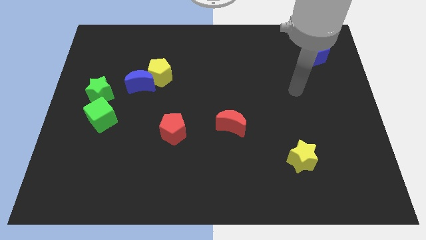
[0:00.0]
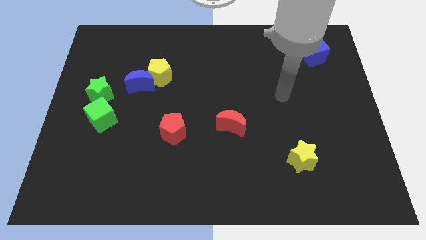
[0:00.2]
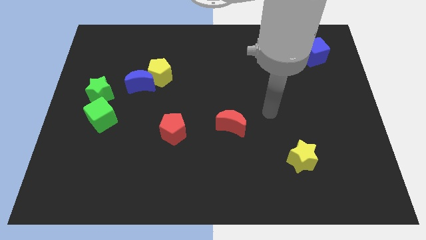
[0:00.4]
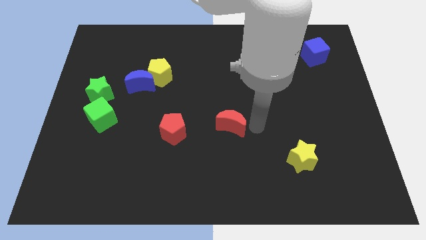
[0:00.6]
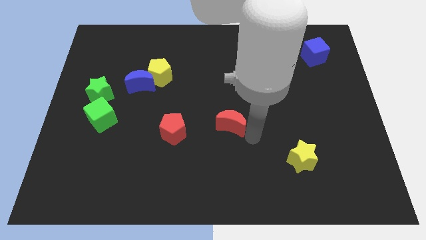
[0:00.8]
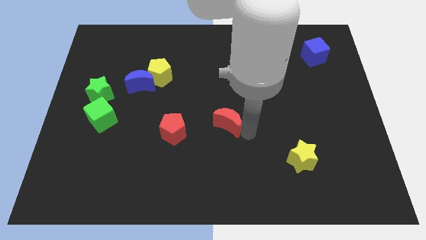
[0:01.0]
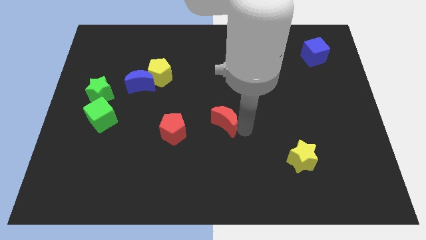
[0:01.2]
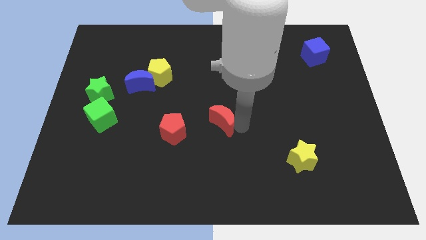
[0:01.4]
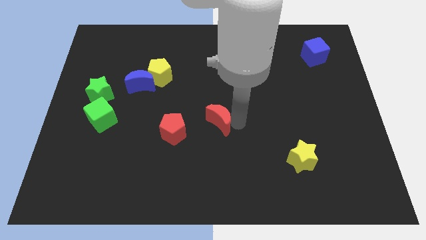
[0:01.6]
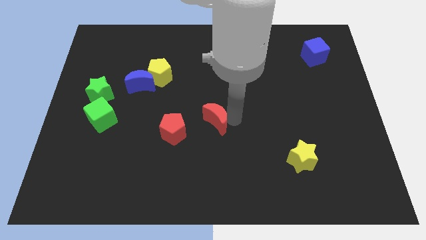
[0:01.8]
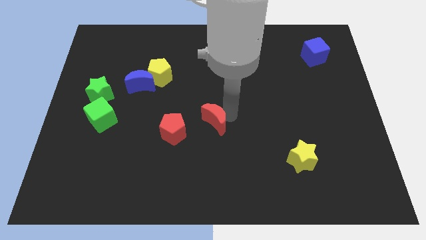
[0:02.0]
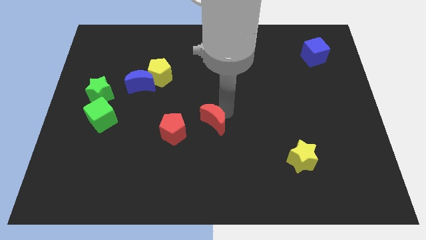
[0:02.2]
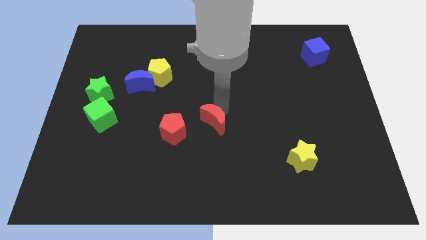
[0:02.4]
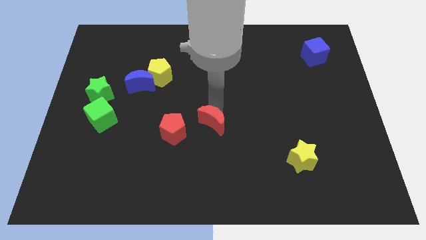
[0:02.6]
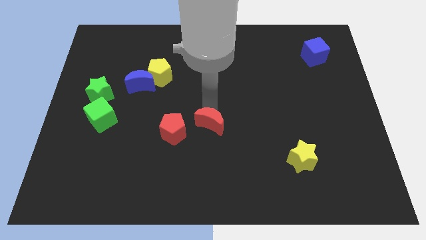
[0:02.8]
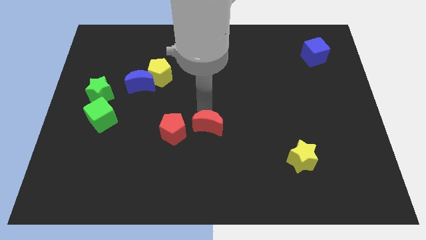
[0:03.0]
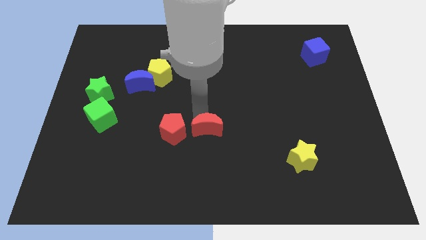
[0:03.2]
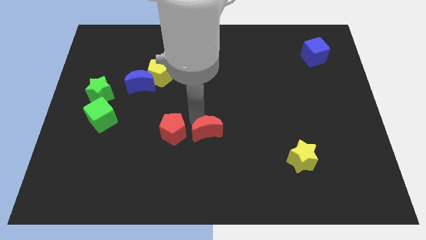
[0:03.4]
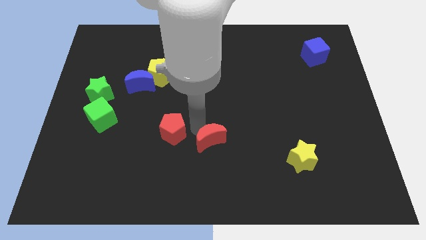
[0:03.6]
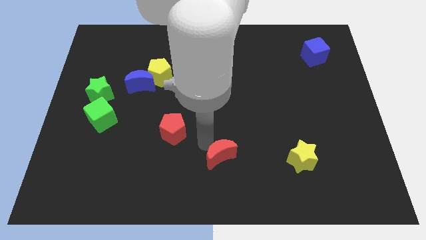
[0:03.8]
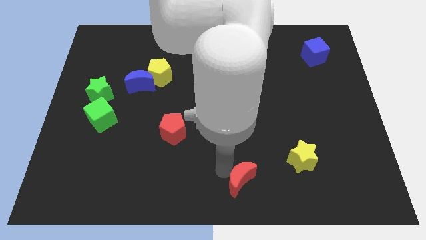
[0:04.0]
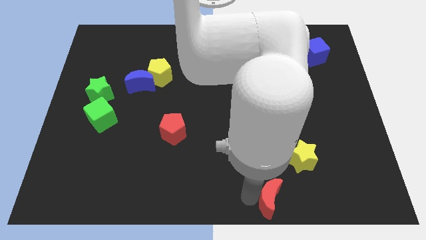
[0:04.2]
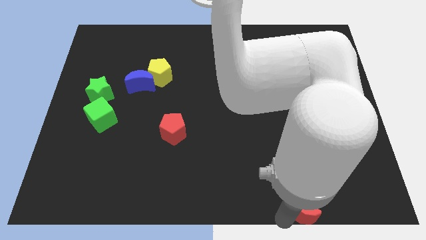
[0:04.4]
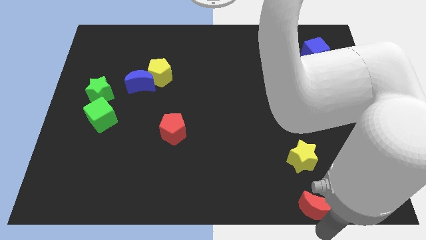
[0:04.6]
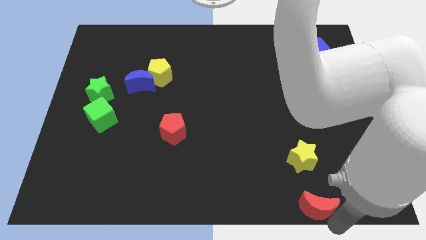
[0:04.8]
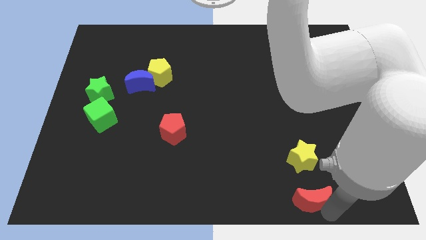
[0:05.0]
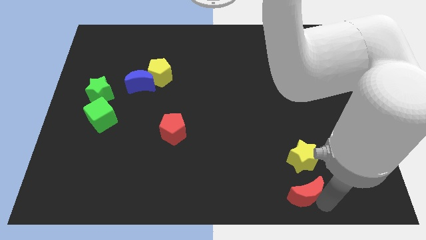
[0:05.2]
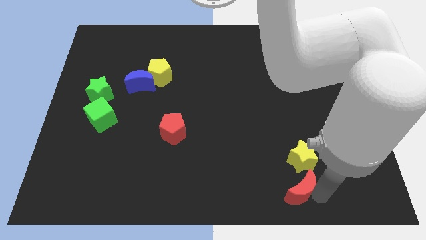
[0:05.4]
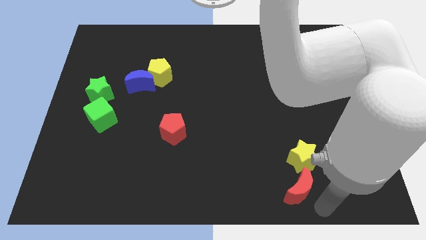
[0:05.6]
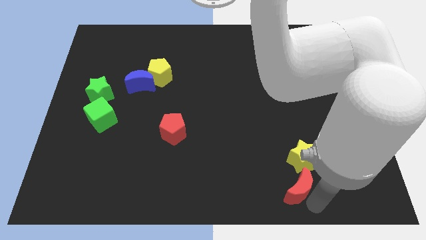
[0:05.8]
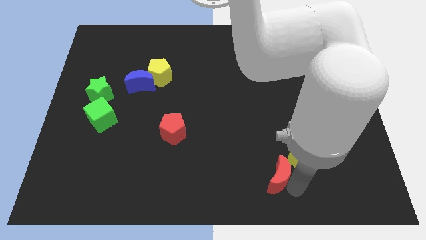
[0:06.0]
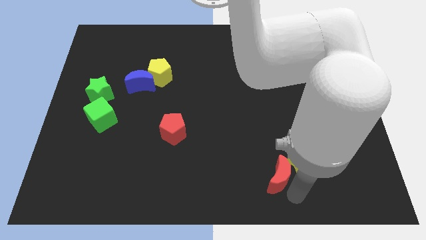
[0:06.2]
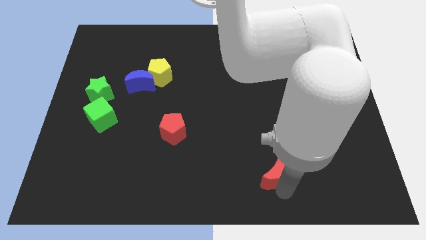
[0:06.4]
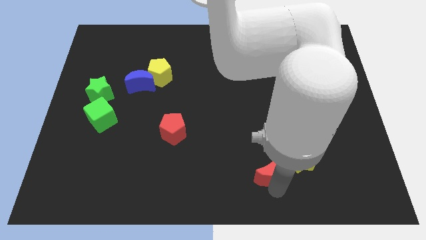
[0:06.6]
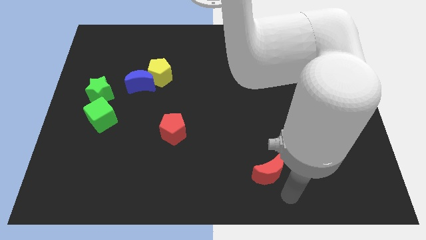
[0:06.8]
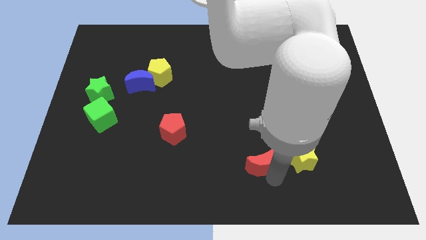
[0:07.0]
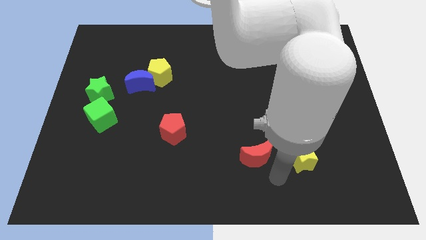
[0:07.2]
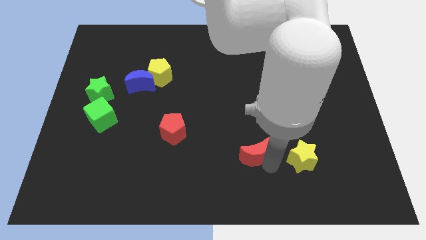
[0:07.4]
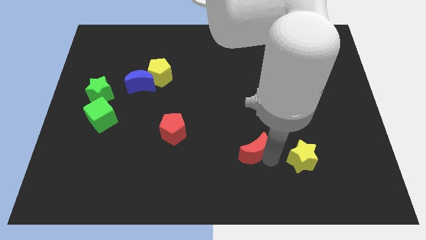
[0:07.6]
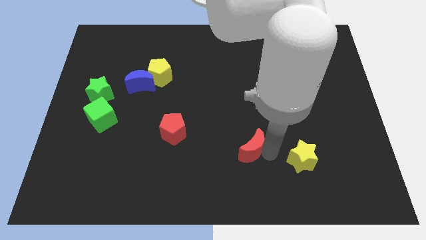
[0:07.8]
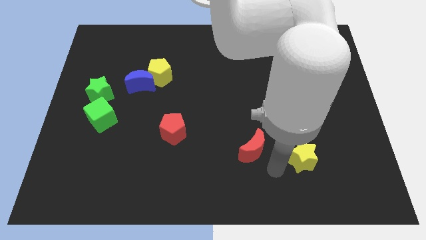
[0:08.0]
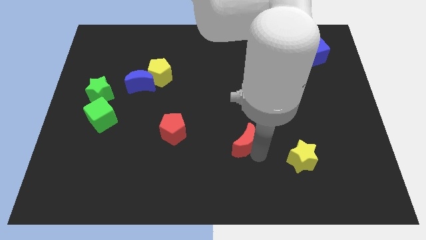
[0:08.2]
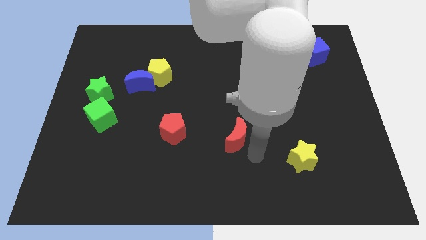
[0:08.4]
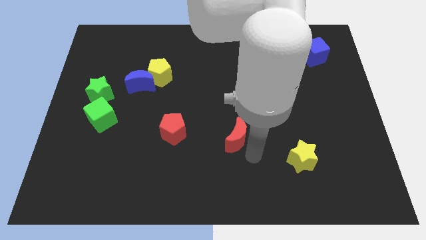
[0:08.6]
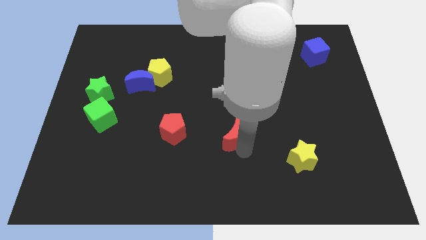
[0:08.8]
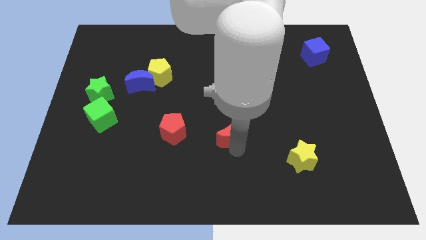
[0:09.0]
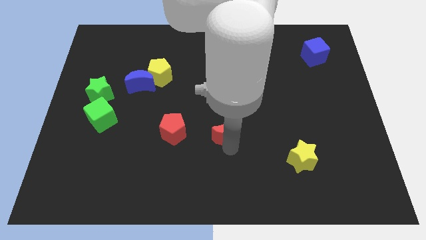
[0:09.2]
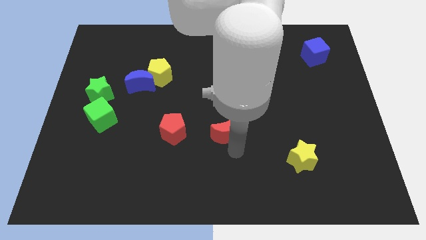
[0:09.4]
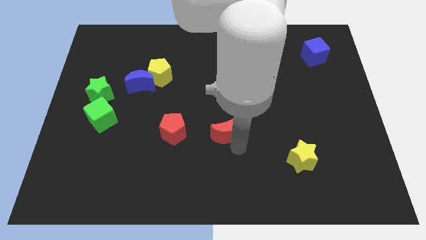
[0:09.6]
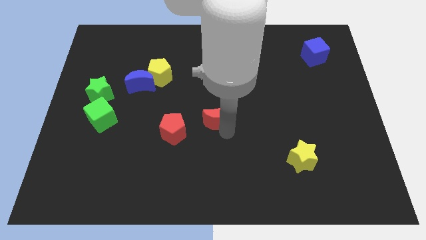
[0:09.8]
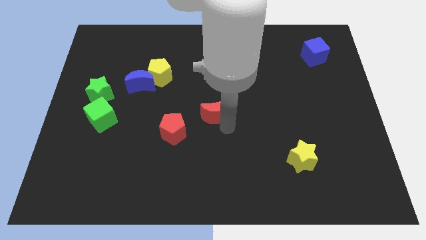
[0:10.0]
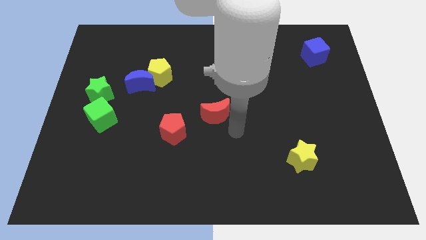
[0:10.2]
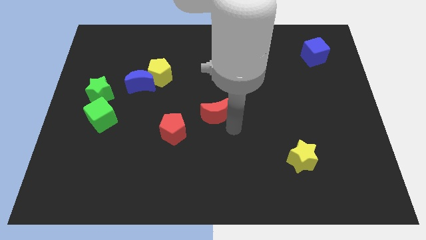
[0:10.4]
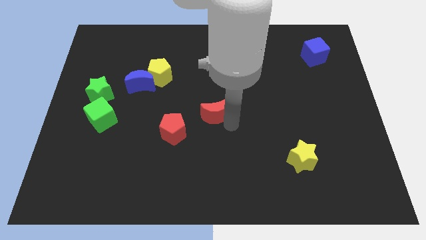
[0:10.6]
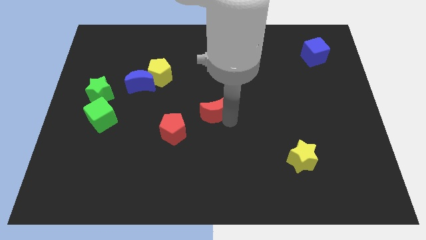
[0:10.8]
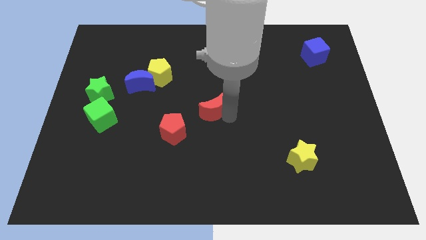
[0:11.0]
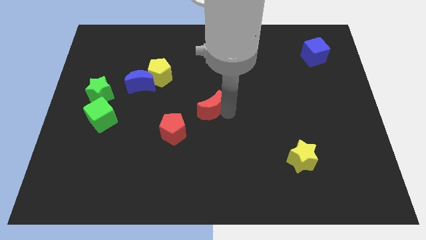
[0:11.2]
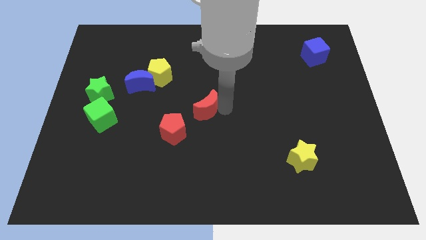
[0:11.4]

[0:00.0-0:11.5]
push the red moon a little bit diagonally upwards and to the left

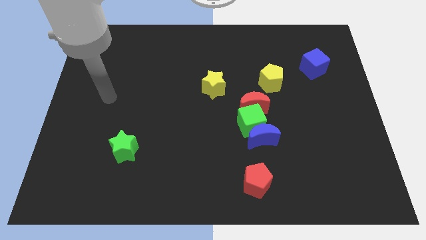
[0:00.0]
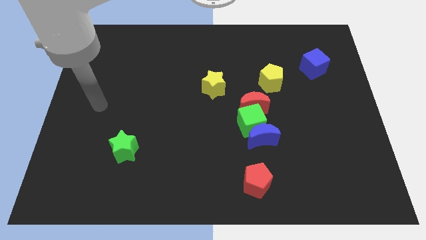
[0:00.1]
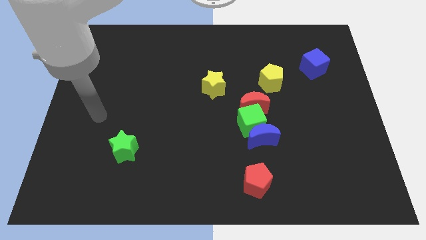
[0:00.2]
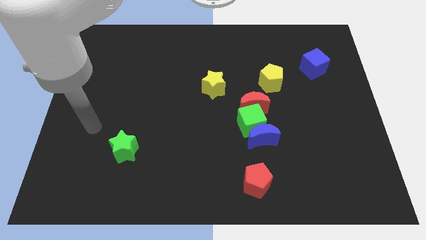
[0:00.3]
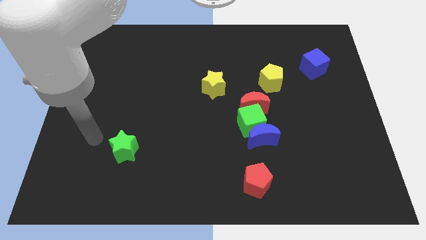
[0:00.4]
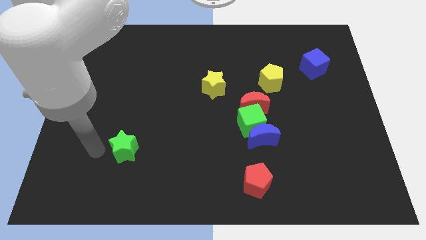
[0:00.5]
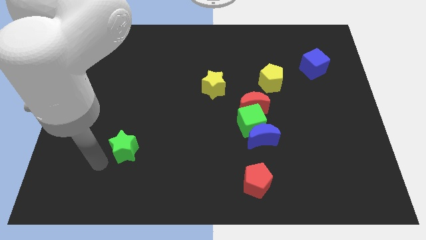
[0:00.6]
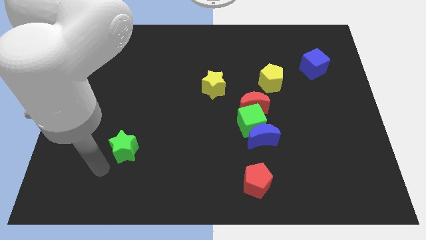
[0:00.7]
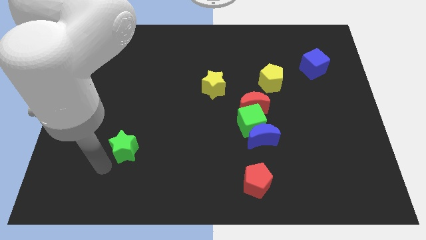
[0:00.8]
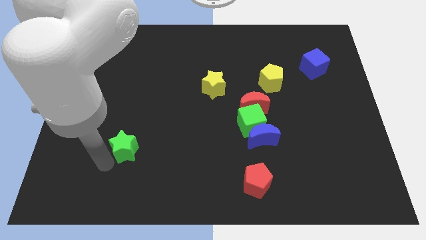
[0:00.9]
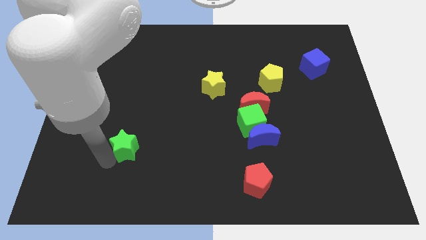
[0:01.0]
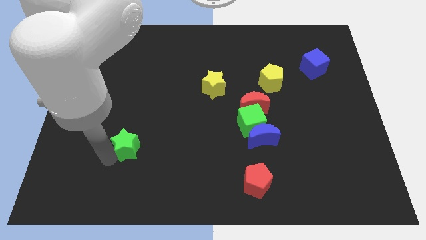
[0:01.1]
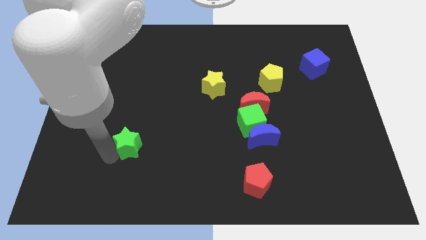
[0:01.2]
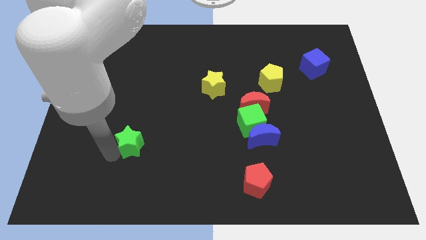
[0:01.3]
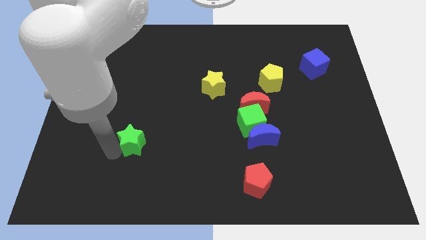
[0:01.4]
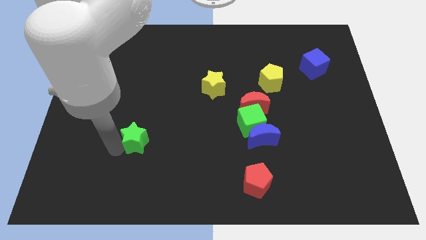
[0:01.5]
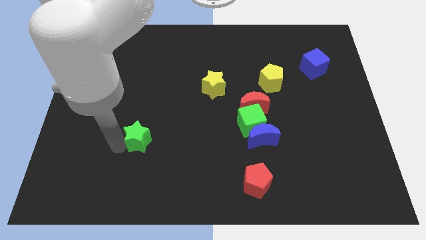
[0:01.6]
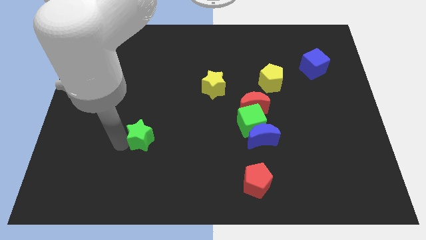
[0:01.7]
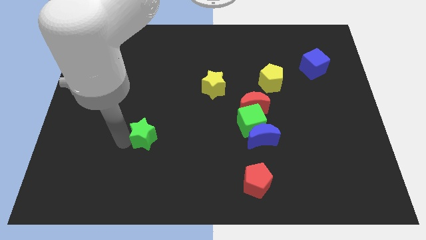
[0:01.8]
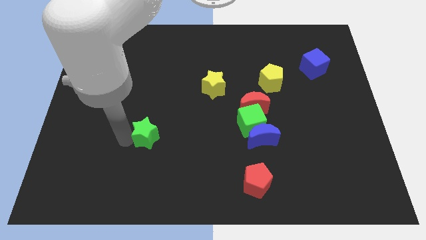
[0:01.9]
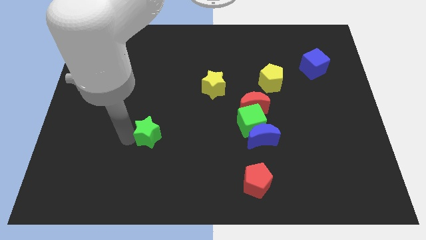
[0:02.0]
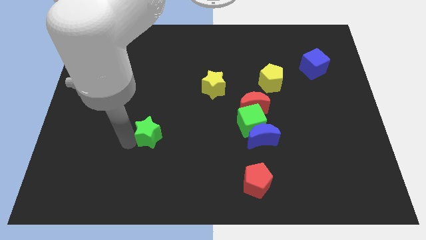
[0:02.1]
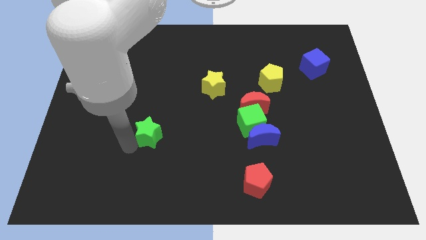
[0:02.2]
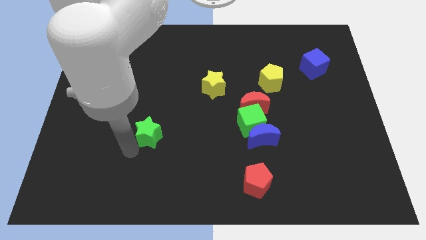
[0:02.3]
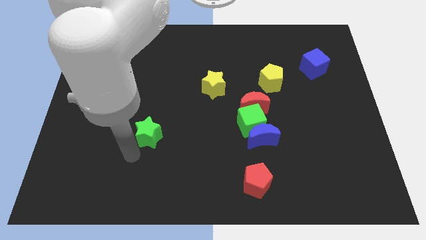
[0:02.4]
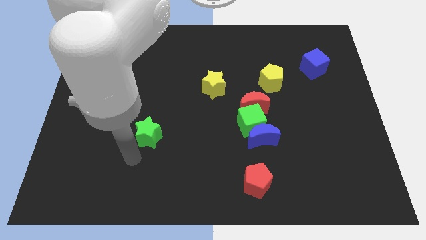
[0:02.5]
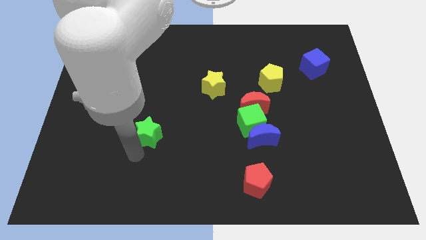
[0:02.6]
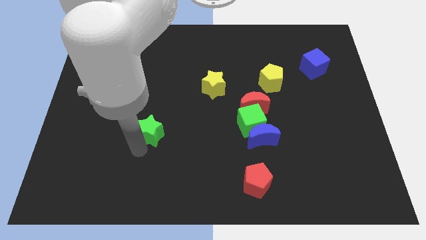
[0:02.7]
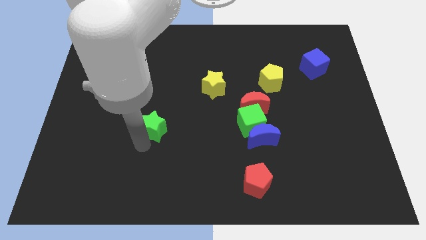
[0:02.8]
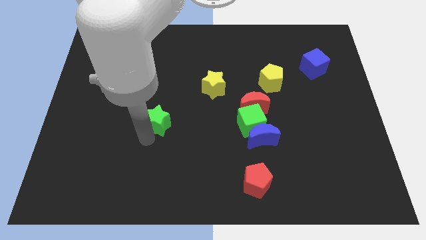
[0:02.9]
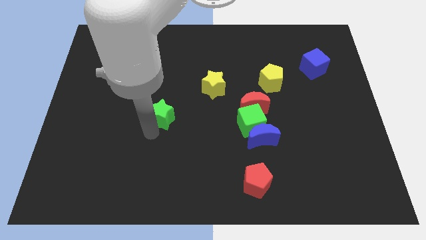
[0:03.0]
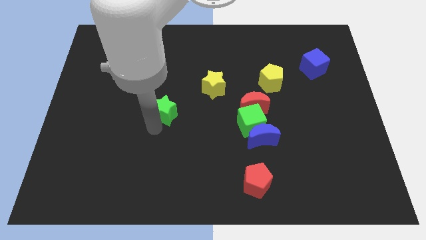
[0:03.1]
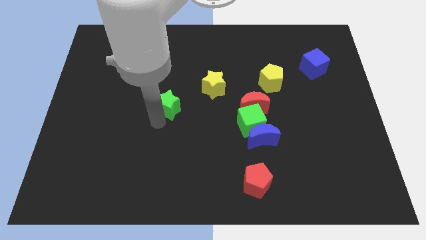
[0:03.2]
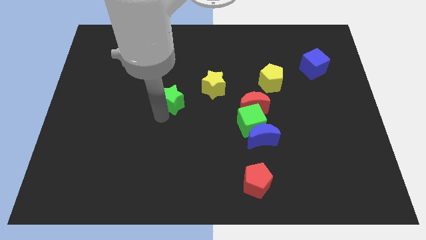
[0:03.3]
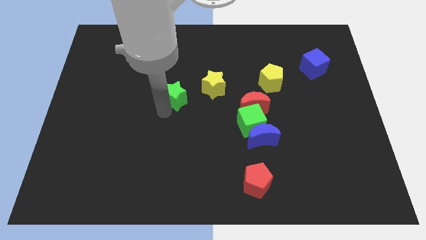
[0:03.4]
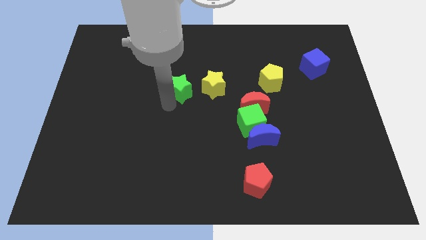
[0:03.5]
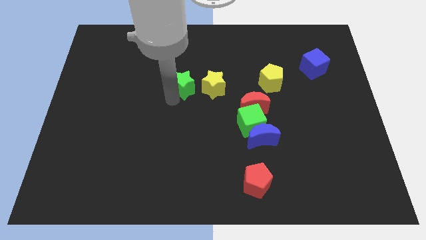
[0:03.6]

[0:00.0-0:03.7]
slide the green star up and right
